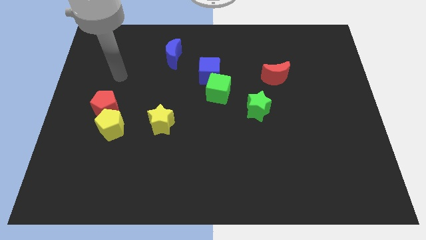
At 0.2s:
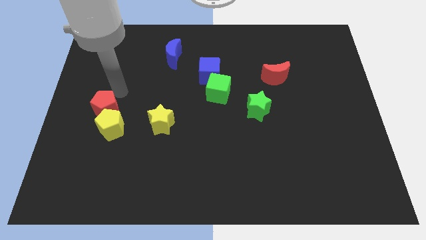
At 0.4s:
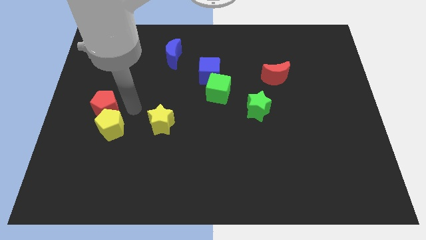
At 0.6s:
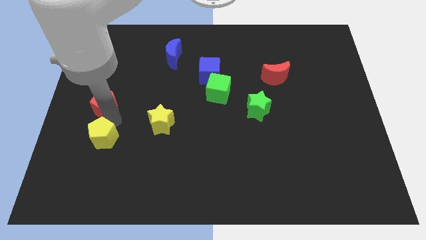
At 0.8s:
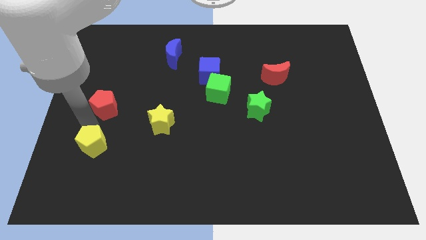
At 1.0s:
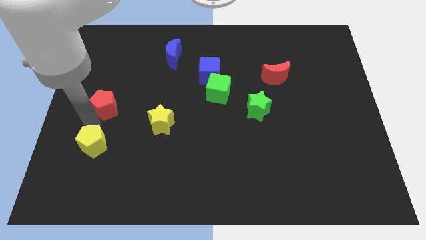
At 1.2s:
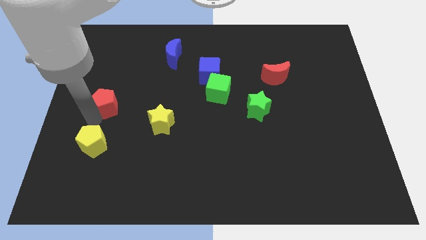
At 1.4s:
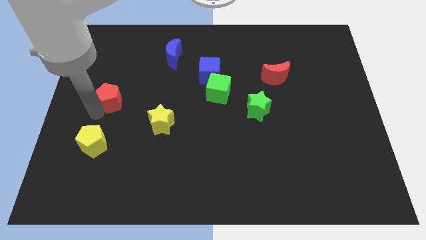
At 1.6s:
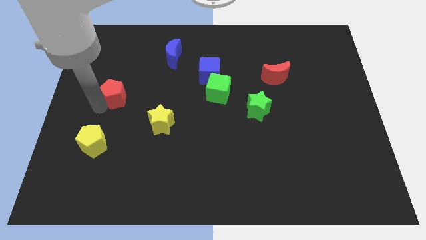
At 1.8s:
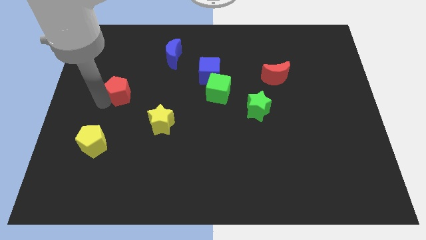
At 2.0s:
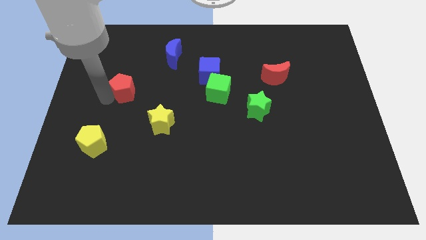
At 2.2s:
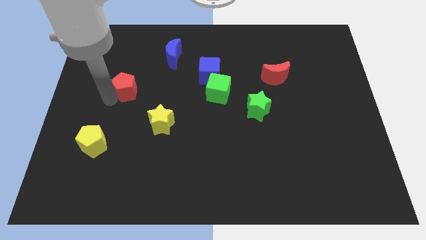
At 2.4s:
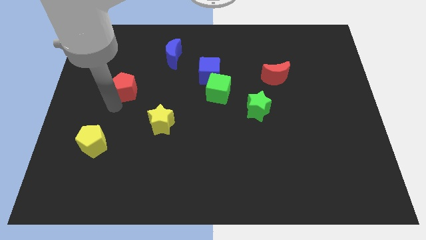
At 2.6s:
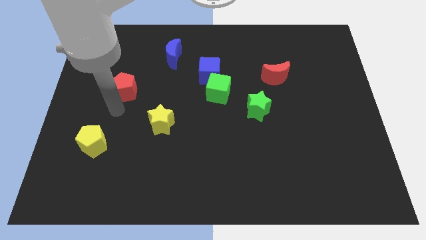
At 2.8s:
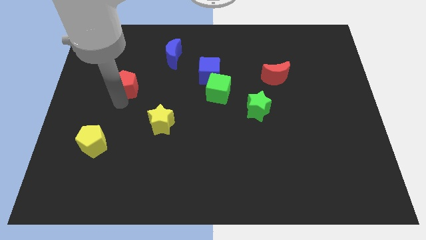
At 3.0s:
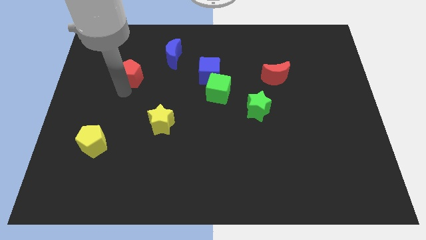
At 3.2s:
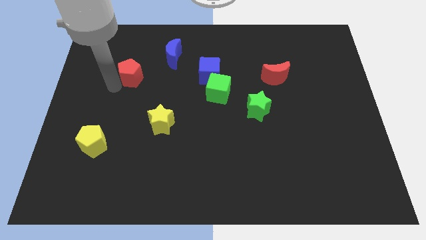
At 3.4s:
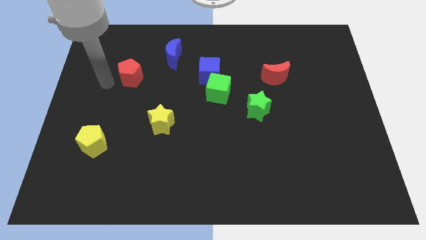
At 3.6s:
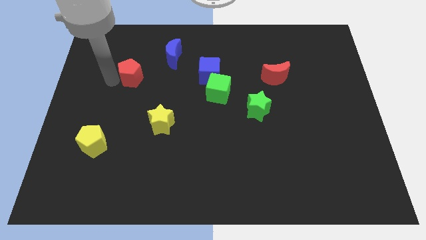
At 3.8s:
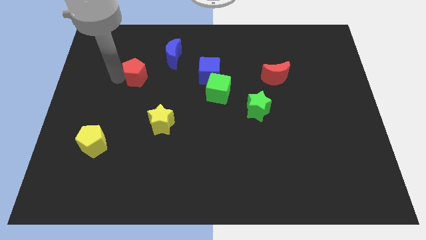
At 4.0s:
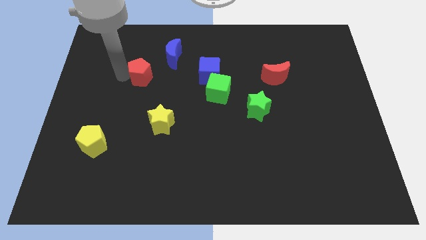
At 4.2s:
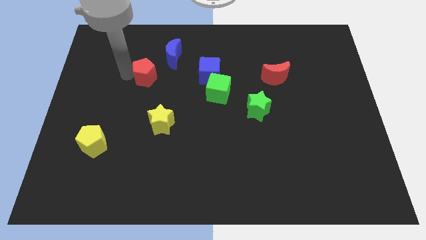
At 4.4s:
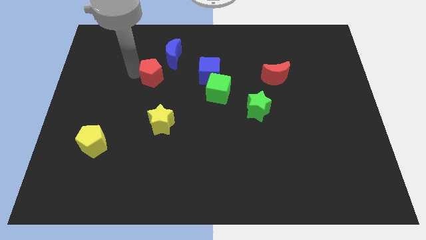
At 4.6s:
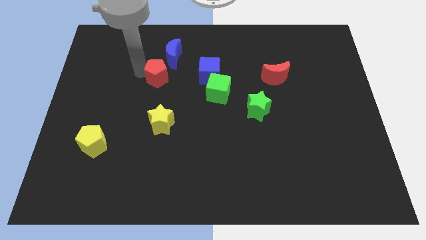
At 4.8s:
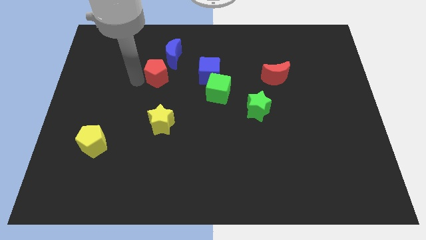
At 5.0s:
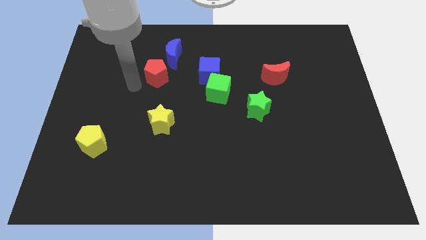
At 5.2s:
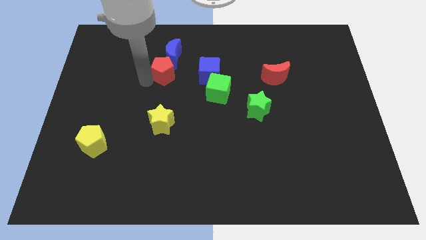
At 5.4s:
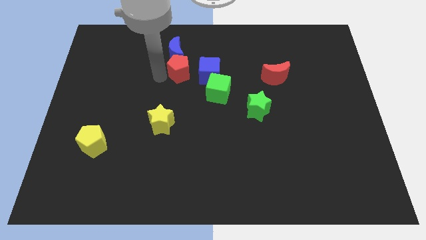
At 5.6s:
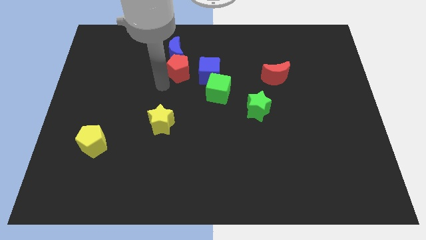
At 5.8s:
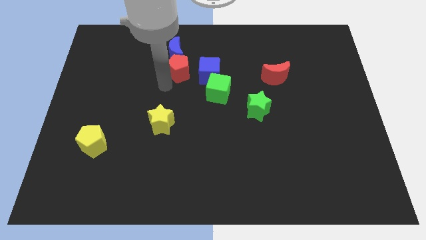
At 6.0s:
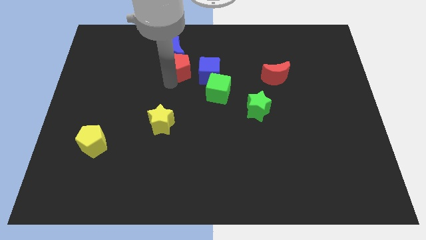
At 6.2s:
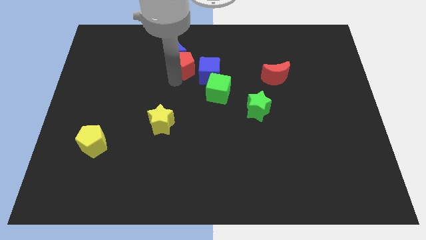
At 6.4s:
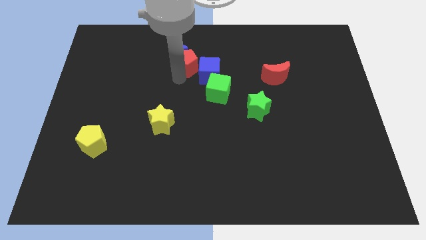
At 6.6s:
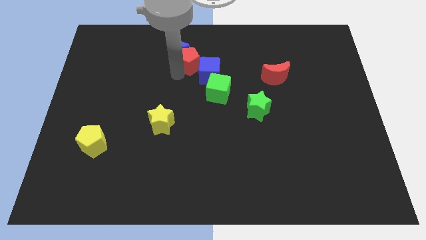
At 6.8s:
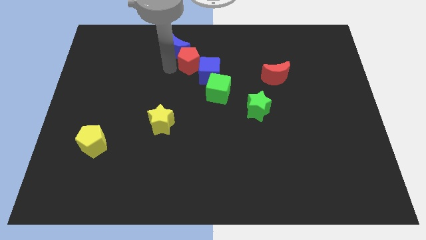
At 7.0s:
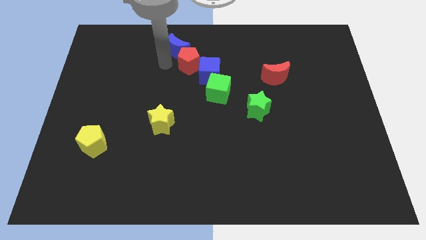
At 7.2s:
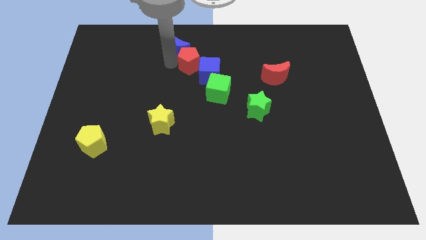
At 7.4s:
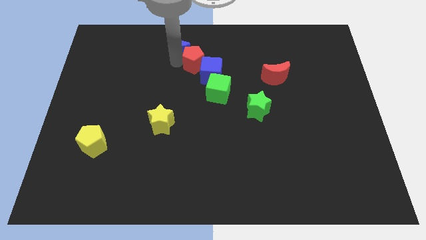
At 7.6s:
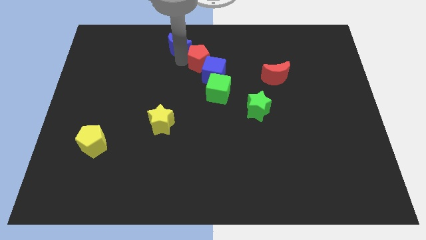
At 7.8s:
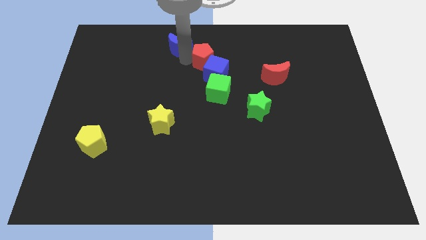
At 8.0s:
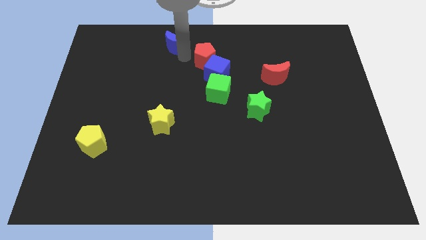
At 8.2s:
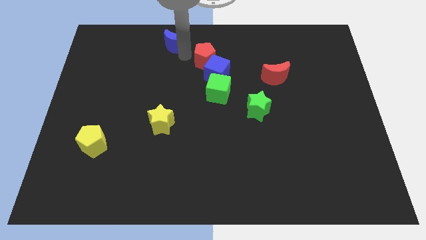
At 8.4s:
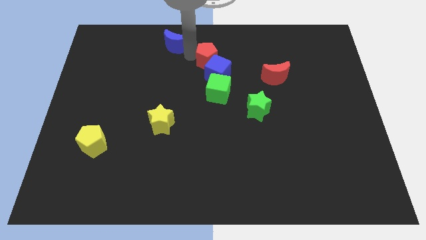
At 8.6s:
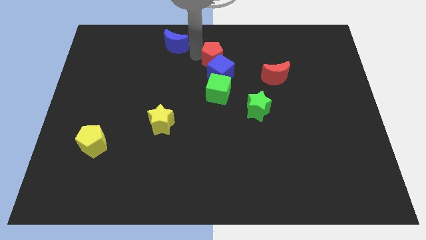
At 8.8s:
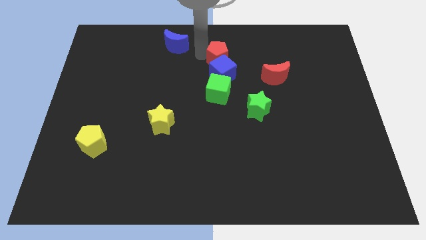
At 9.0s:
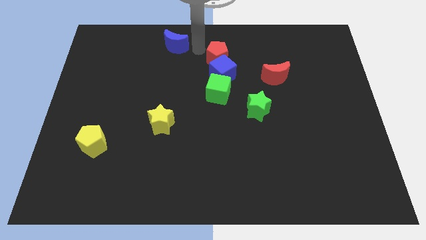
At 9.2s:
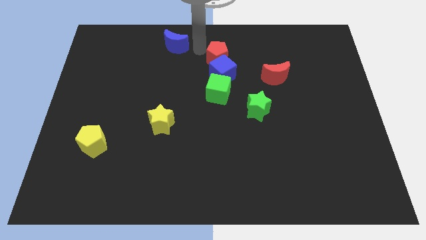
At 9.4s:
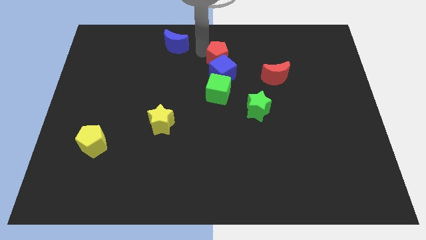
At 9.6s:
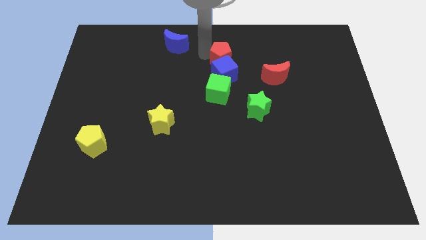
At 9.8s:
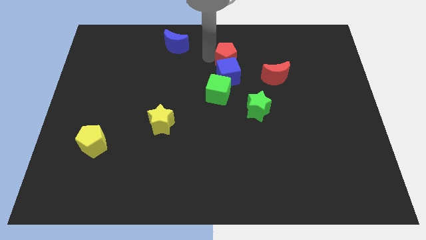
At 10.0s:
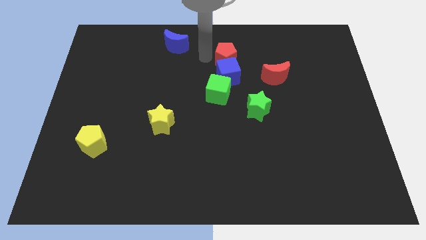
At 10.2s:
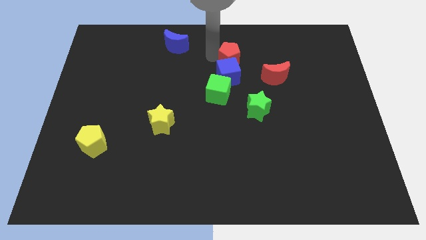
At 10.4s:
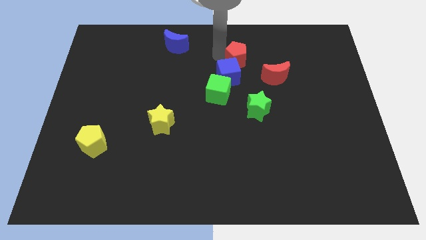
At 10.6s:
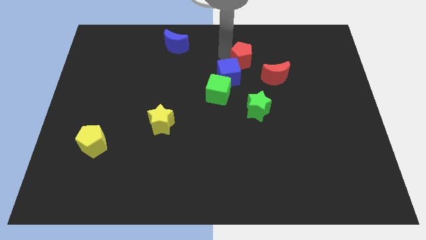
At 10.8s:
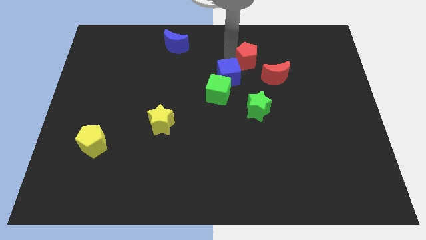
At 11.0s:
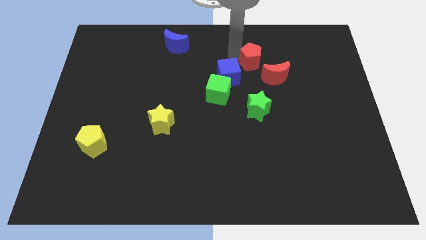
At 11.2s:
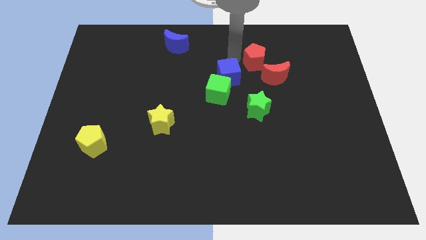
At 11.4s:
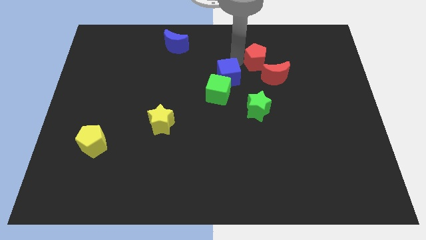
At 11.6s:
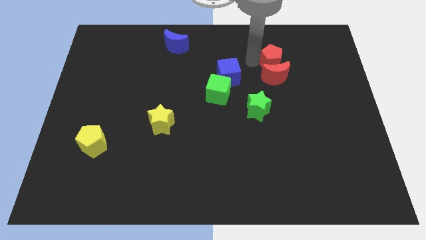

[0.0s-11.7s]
push the red pentagon to the top right side of the red moon

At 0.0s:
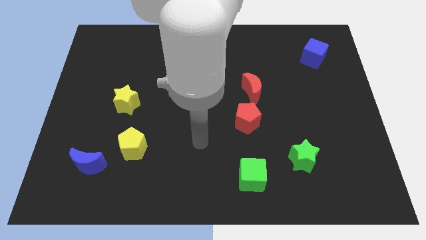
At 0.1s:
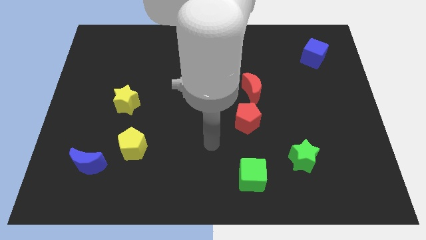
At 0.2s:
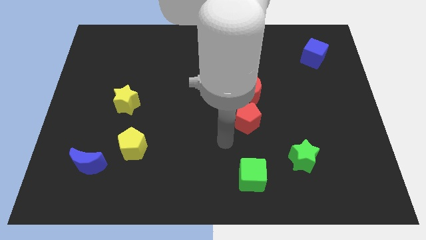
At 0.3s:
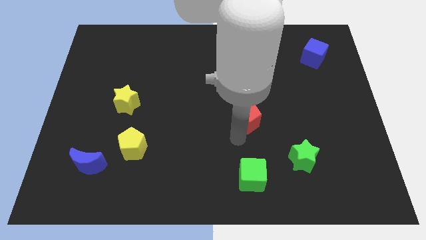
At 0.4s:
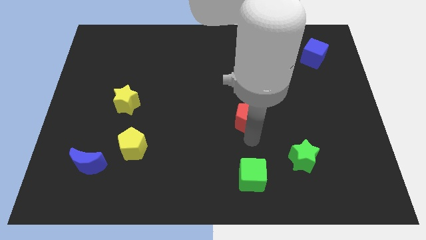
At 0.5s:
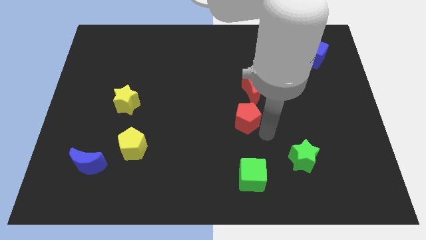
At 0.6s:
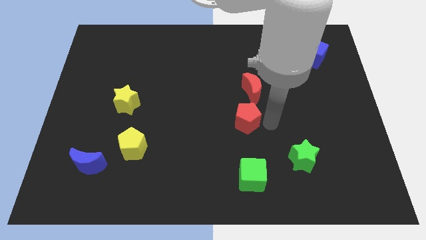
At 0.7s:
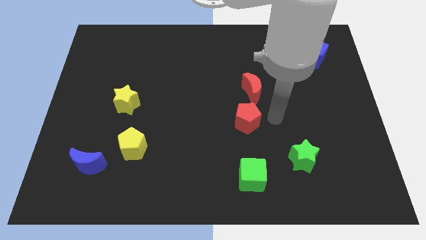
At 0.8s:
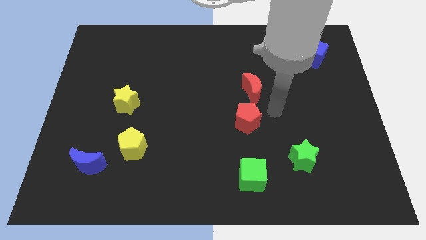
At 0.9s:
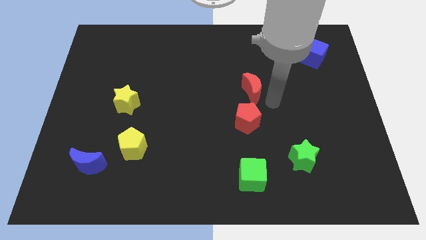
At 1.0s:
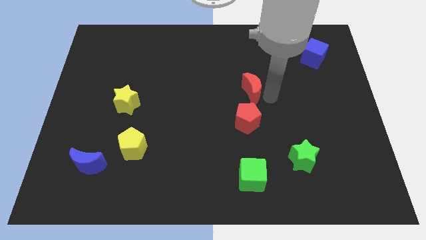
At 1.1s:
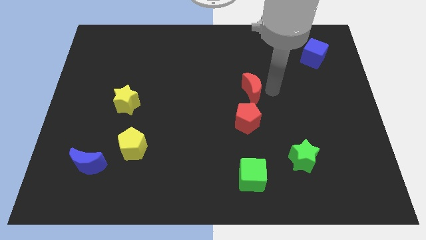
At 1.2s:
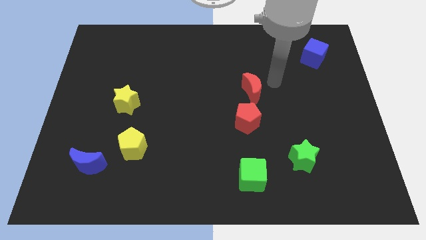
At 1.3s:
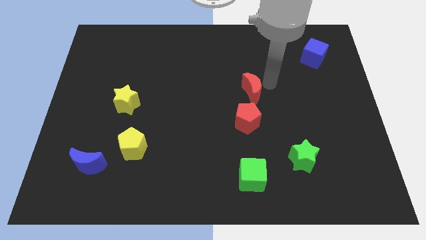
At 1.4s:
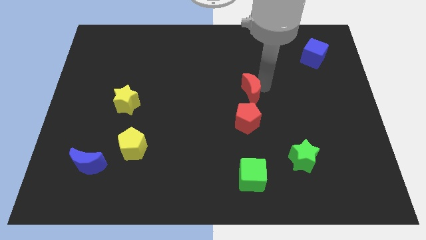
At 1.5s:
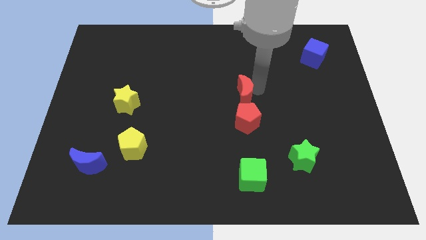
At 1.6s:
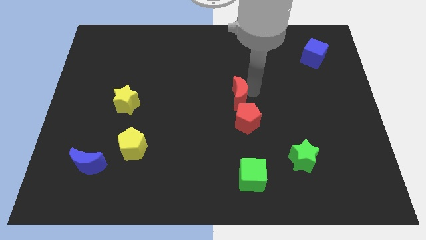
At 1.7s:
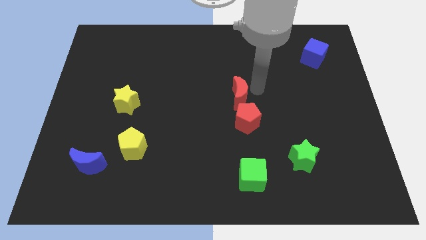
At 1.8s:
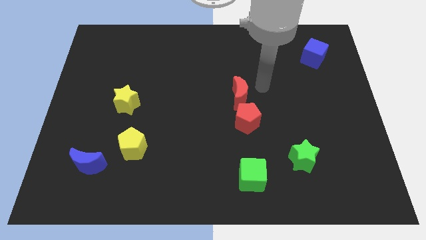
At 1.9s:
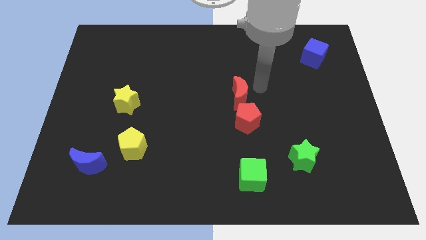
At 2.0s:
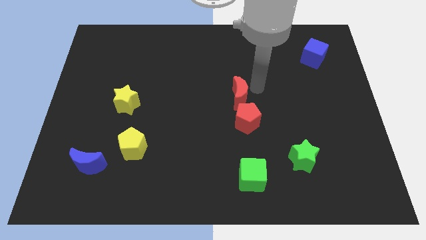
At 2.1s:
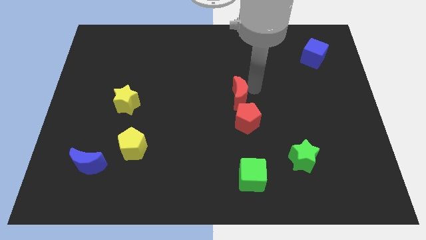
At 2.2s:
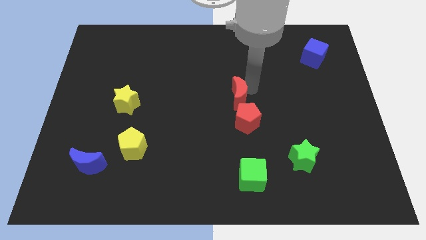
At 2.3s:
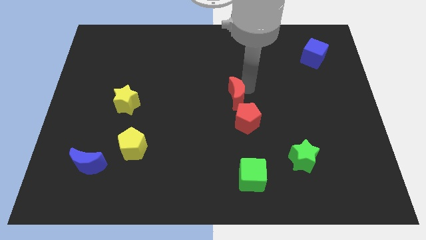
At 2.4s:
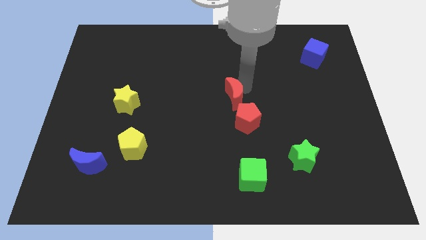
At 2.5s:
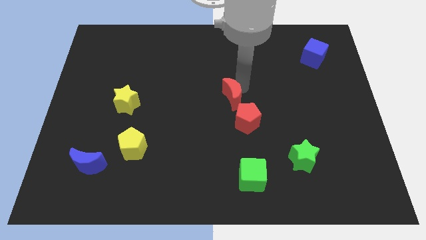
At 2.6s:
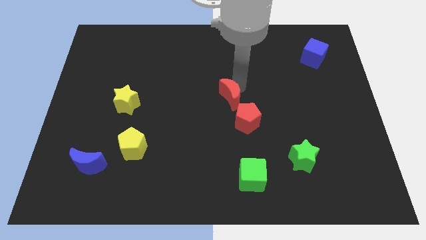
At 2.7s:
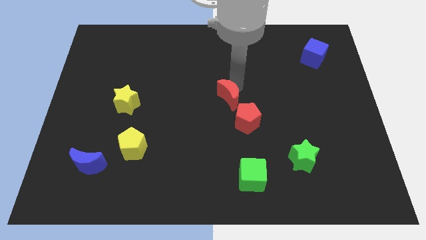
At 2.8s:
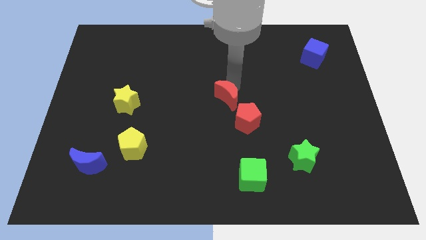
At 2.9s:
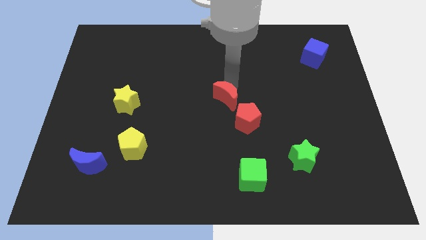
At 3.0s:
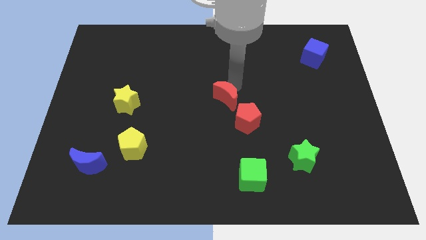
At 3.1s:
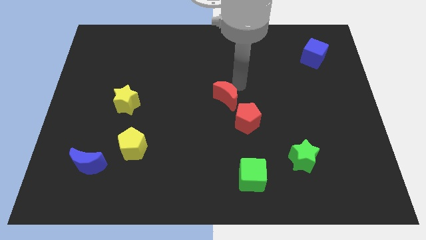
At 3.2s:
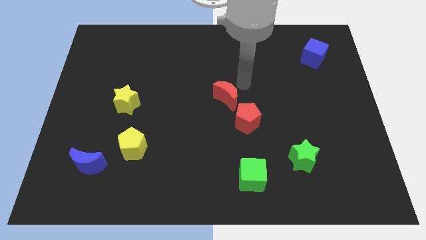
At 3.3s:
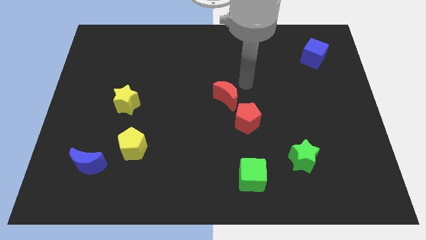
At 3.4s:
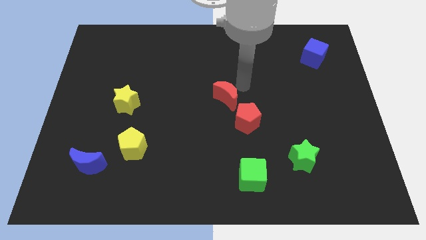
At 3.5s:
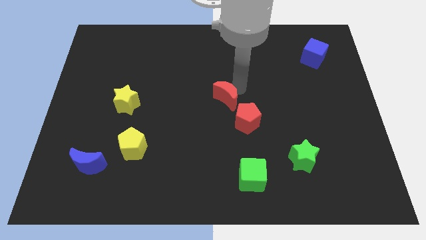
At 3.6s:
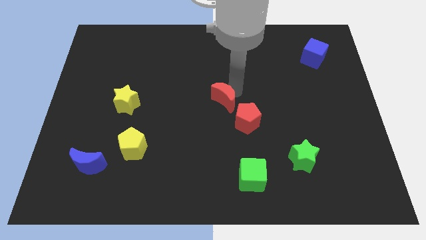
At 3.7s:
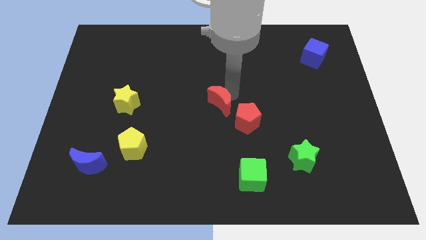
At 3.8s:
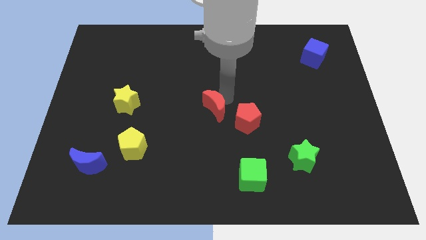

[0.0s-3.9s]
put the red moon just left of the red pentagon
